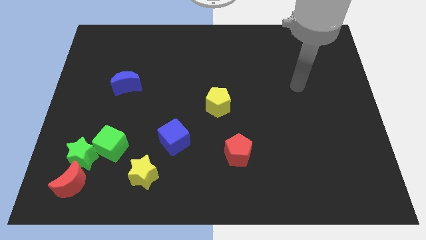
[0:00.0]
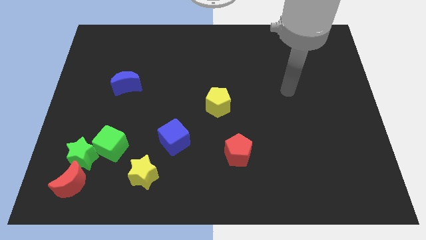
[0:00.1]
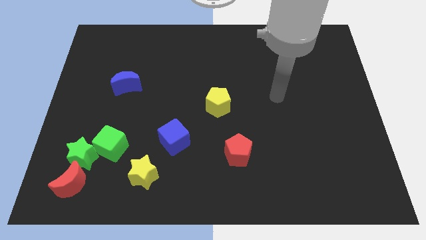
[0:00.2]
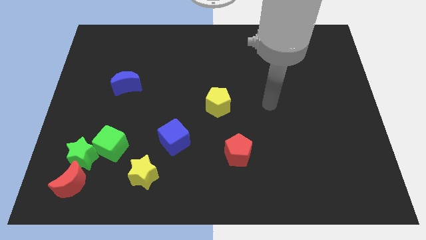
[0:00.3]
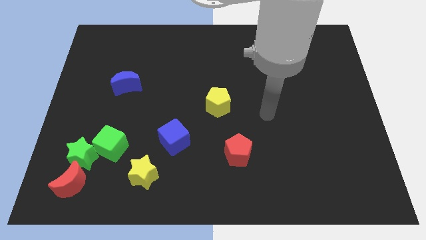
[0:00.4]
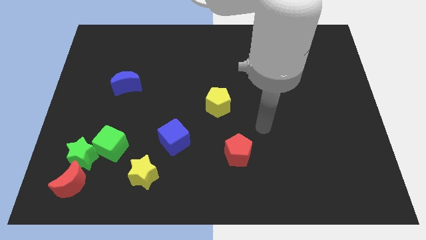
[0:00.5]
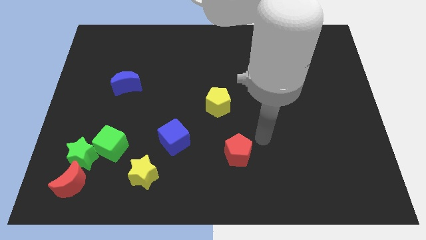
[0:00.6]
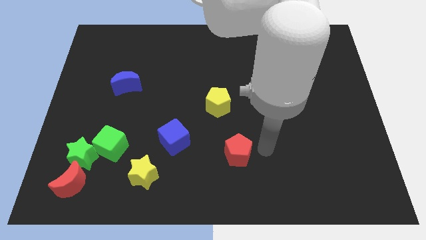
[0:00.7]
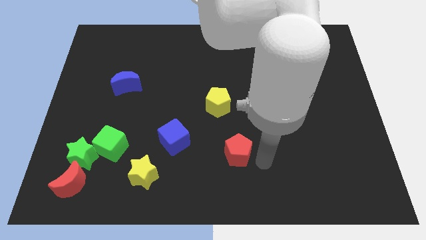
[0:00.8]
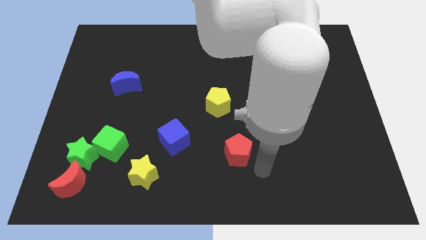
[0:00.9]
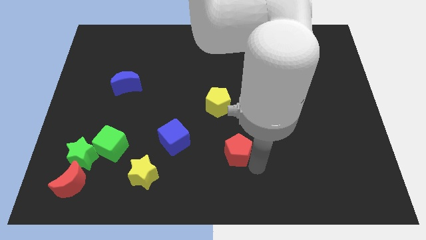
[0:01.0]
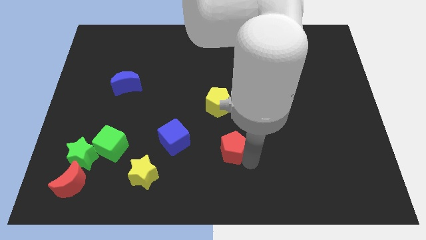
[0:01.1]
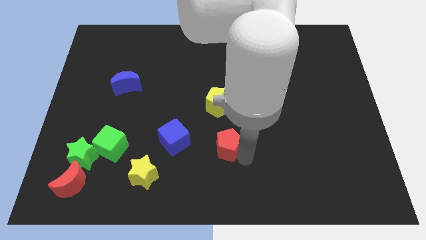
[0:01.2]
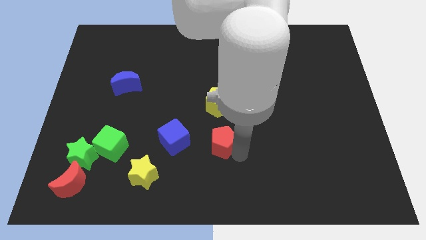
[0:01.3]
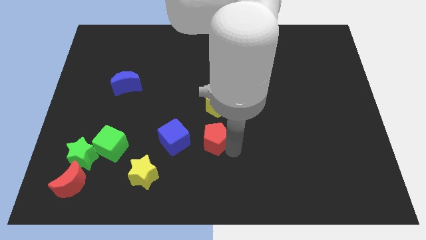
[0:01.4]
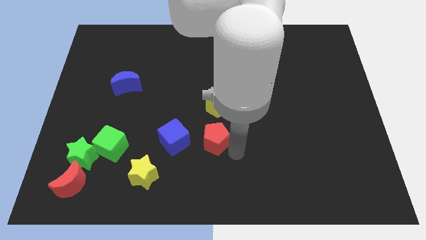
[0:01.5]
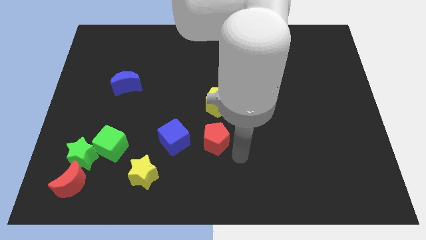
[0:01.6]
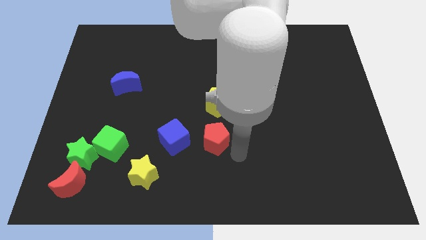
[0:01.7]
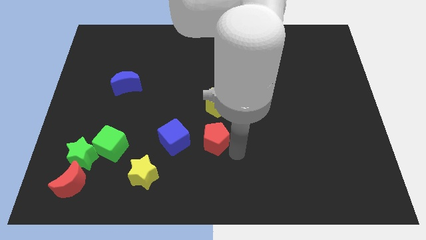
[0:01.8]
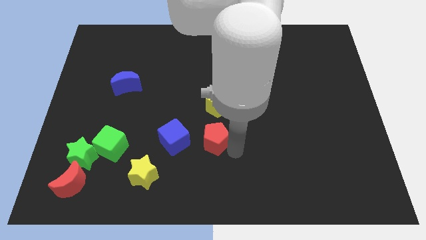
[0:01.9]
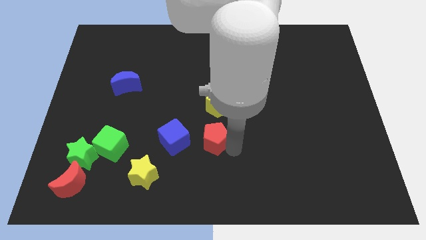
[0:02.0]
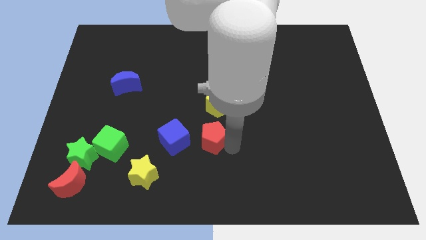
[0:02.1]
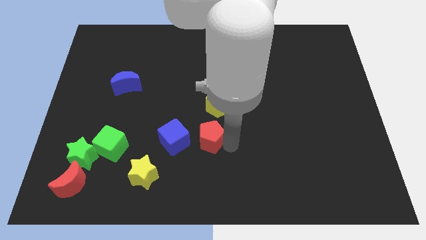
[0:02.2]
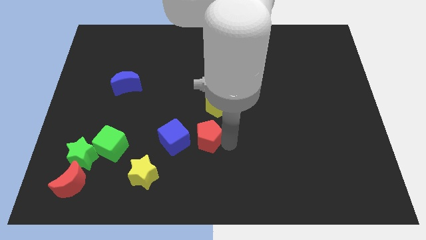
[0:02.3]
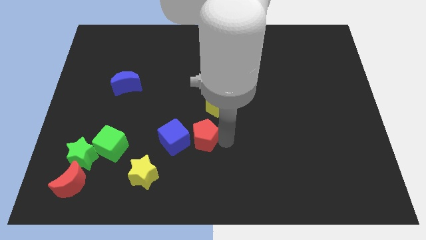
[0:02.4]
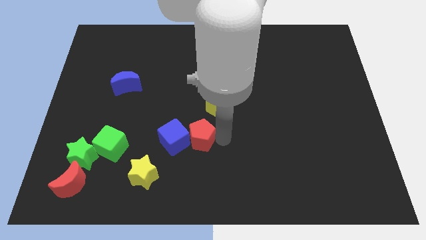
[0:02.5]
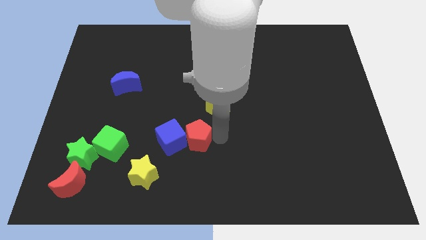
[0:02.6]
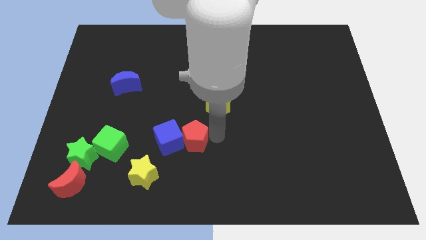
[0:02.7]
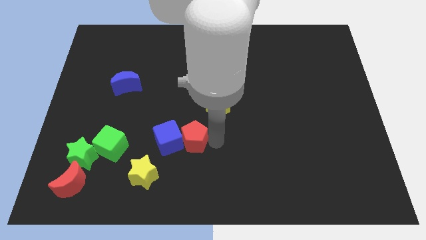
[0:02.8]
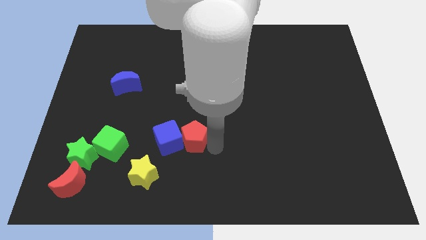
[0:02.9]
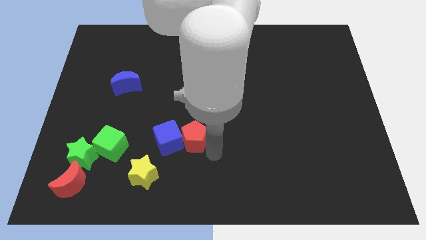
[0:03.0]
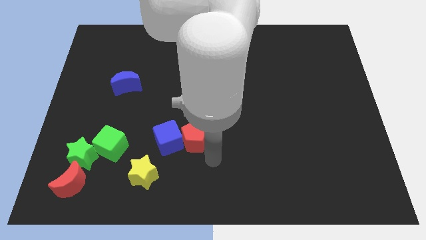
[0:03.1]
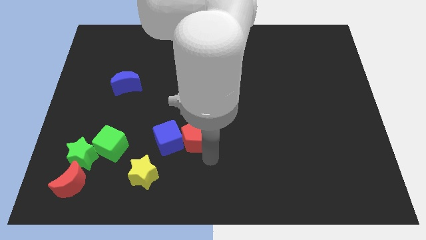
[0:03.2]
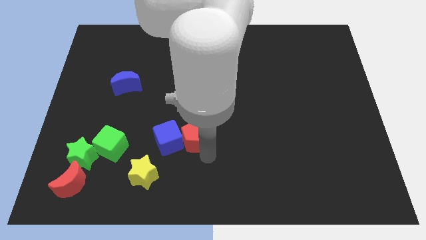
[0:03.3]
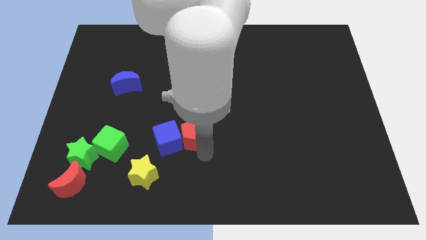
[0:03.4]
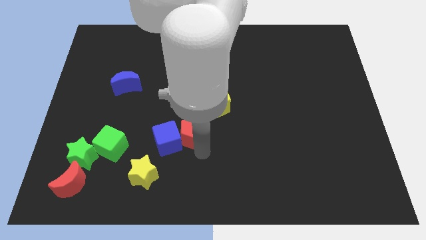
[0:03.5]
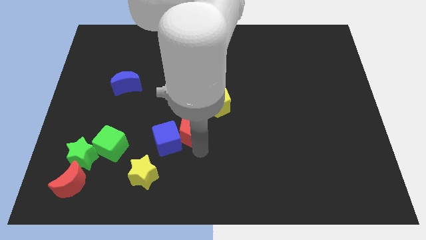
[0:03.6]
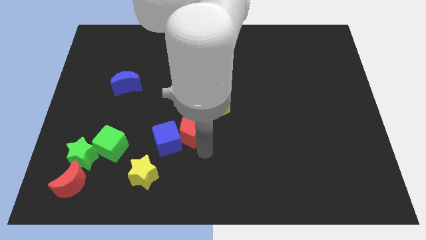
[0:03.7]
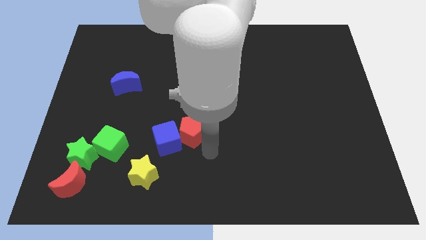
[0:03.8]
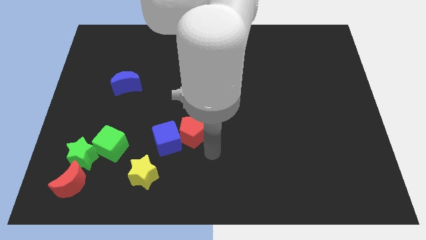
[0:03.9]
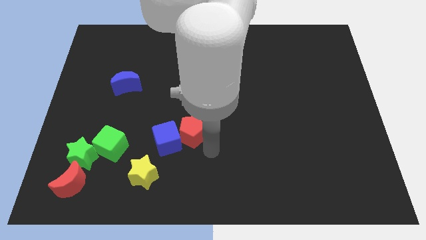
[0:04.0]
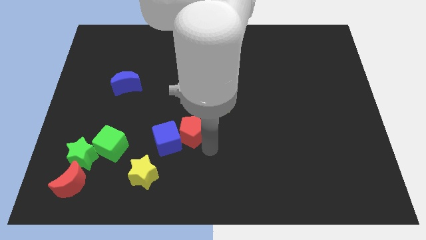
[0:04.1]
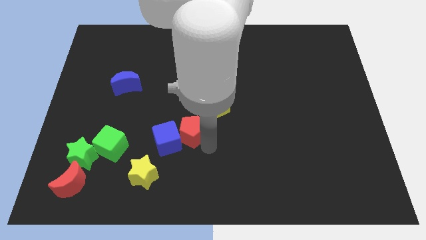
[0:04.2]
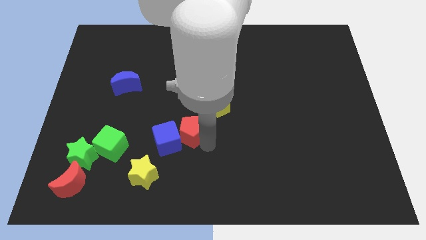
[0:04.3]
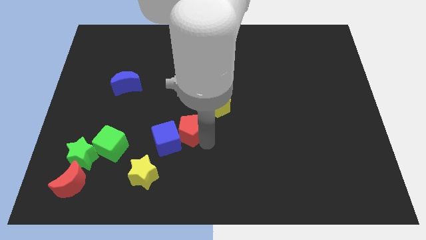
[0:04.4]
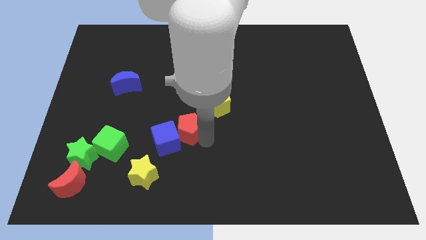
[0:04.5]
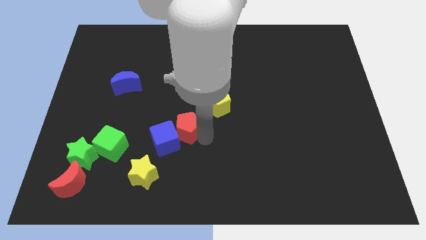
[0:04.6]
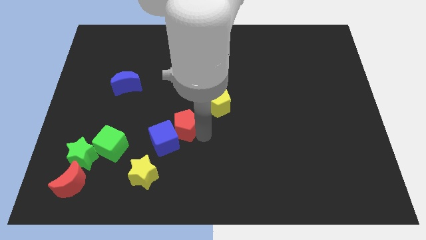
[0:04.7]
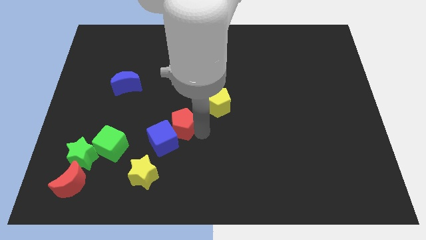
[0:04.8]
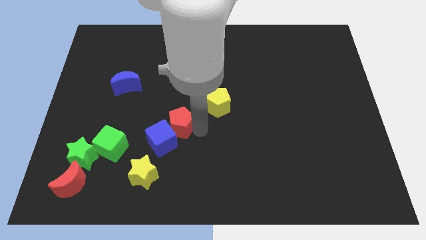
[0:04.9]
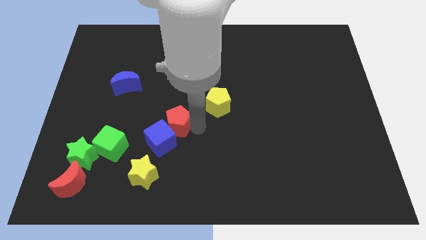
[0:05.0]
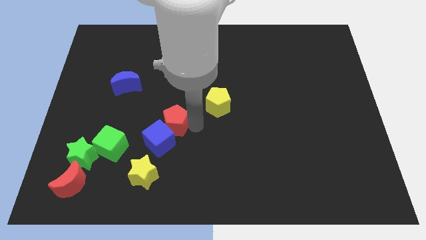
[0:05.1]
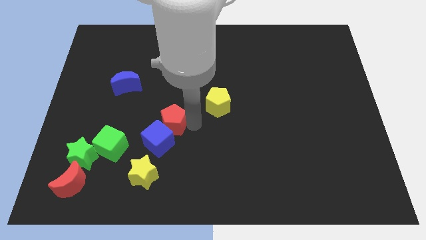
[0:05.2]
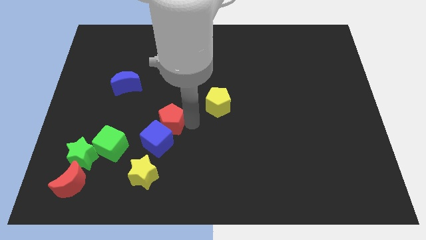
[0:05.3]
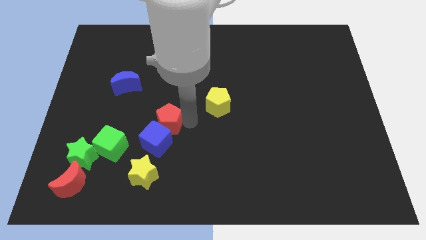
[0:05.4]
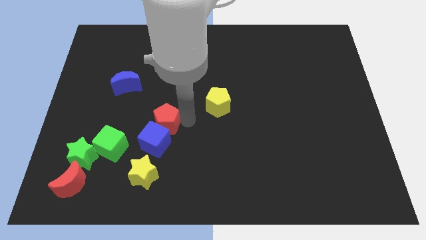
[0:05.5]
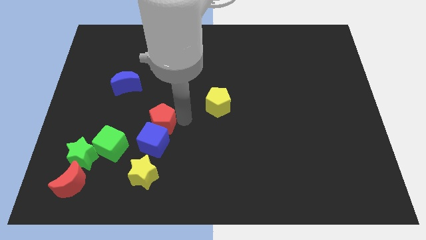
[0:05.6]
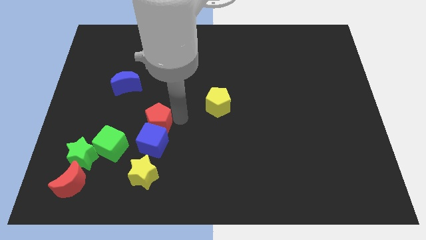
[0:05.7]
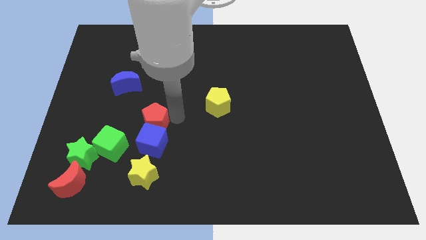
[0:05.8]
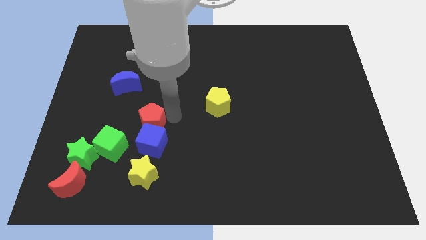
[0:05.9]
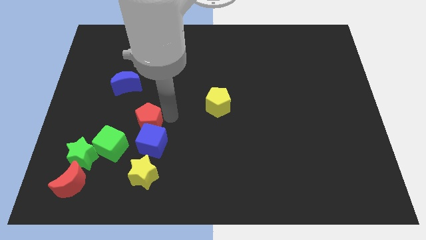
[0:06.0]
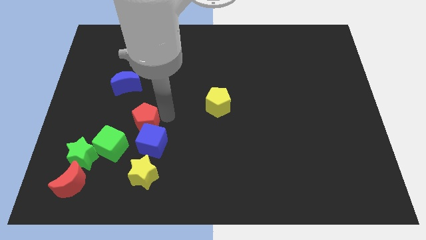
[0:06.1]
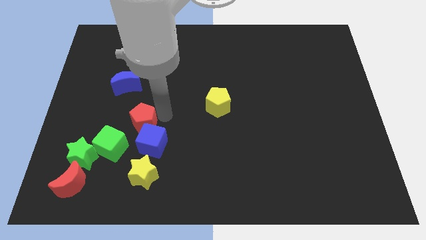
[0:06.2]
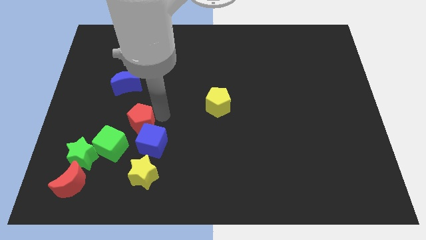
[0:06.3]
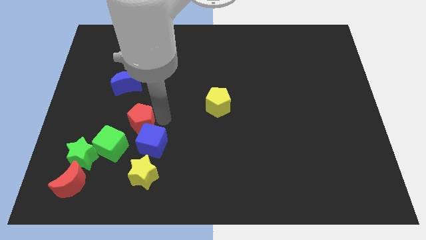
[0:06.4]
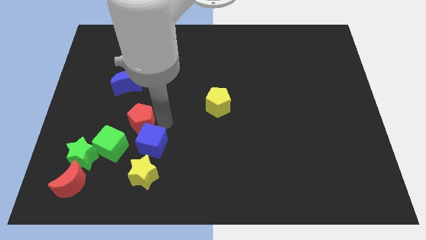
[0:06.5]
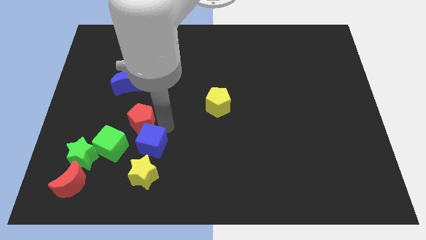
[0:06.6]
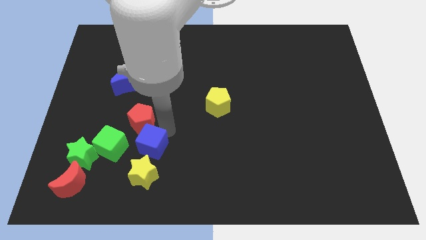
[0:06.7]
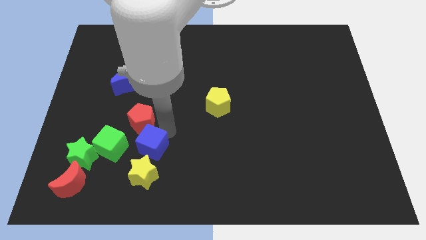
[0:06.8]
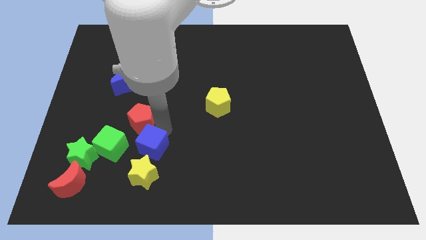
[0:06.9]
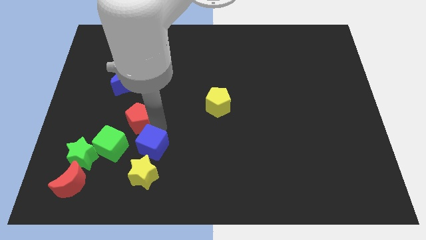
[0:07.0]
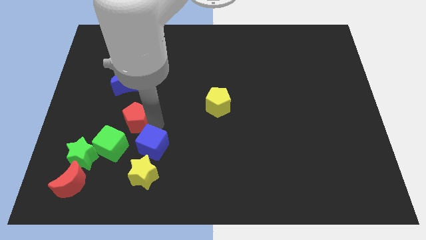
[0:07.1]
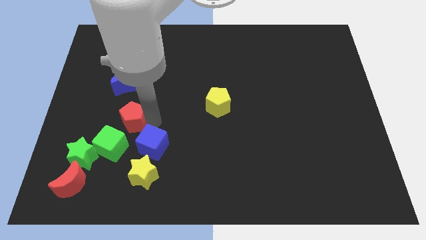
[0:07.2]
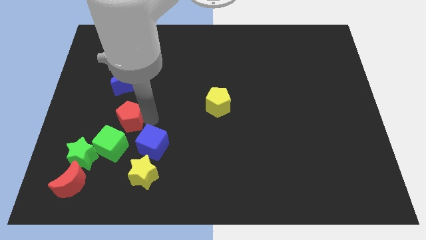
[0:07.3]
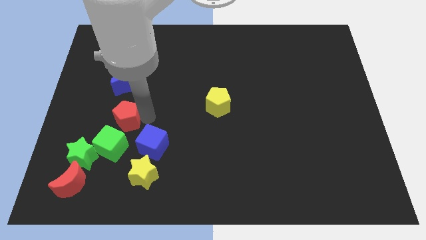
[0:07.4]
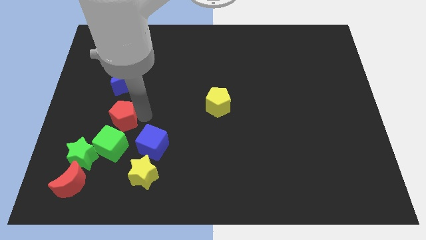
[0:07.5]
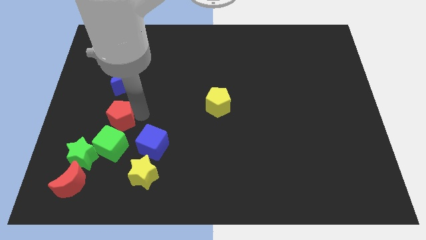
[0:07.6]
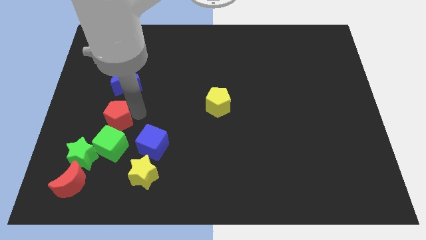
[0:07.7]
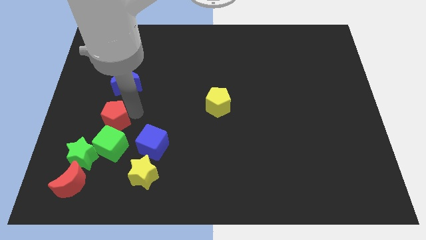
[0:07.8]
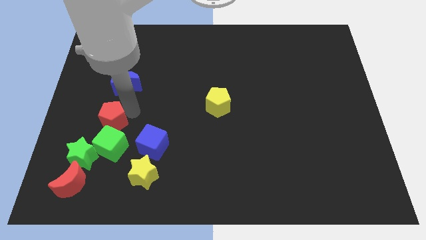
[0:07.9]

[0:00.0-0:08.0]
slide the red pentagon diagonally up and to the left of the green cube
